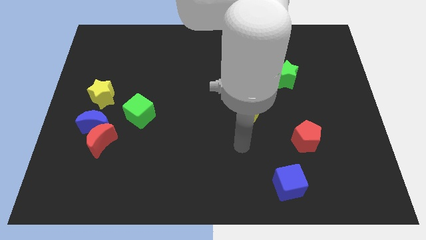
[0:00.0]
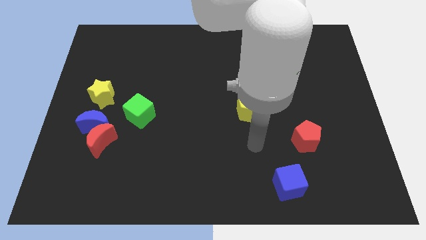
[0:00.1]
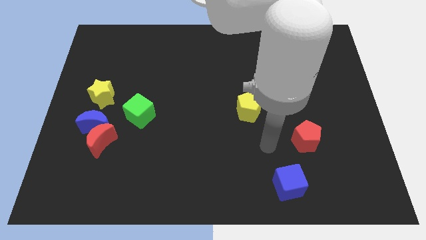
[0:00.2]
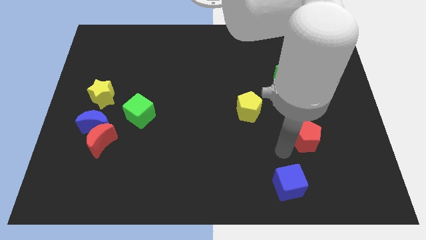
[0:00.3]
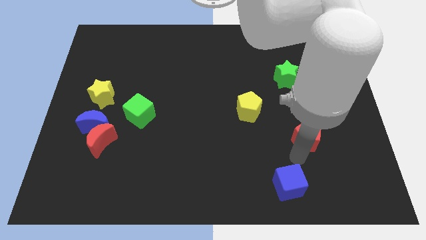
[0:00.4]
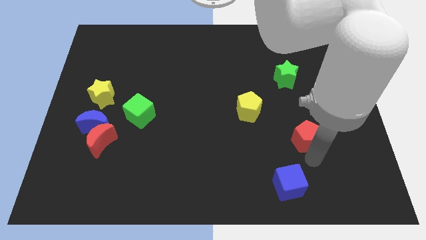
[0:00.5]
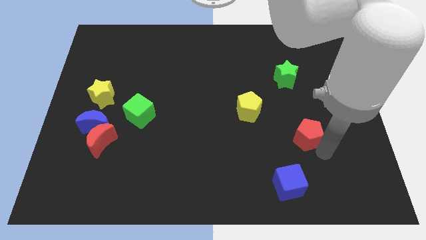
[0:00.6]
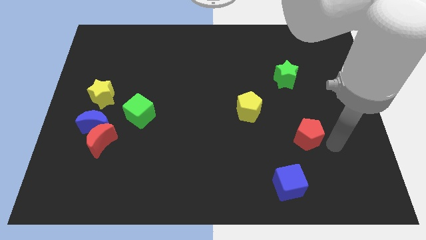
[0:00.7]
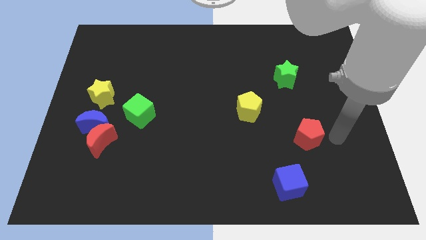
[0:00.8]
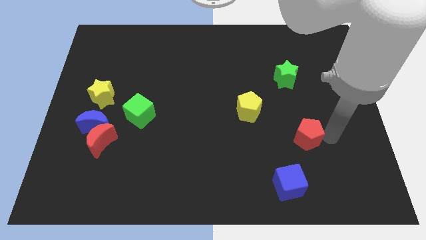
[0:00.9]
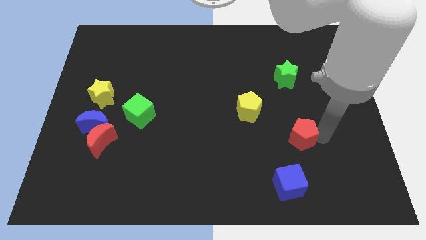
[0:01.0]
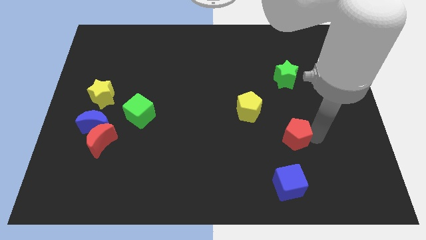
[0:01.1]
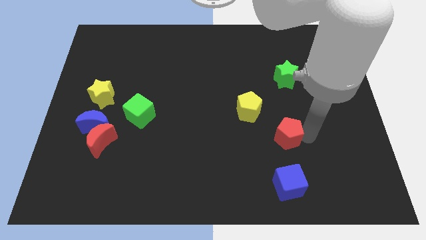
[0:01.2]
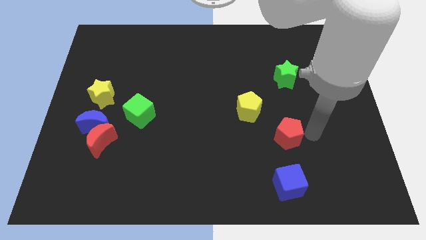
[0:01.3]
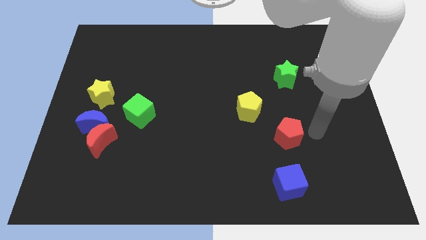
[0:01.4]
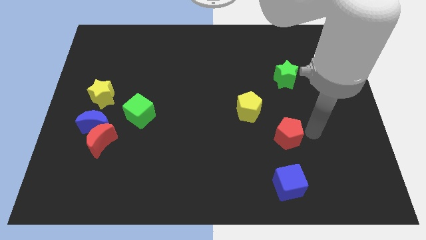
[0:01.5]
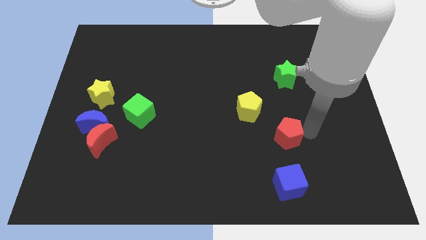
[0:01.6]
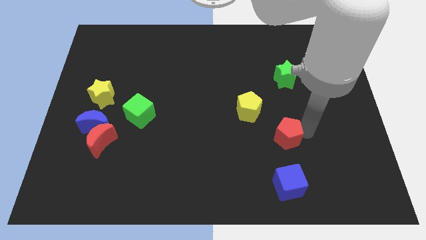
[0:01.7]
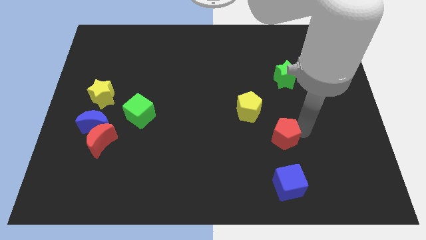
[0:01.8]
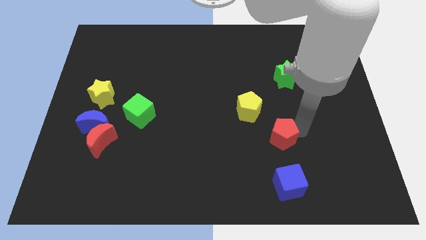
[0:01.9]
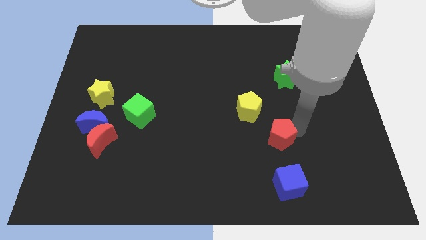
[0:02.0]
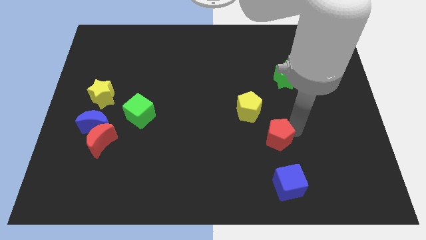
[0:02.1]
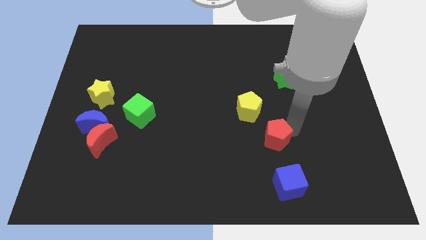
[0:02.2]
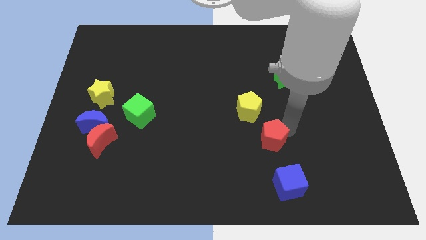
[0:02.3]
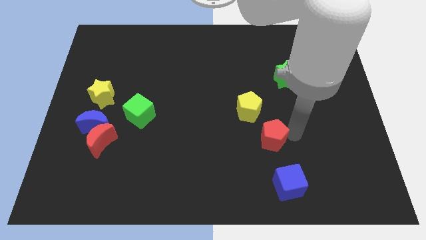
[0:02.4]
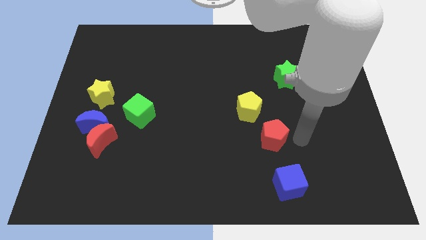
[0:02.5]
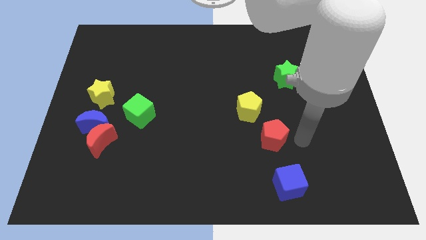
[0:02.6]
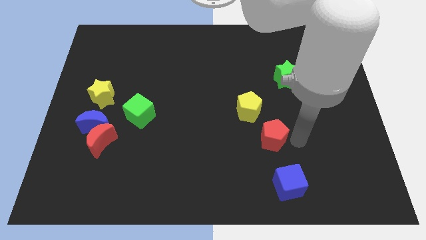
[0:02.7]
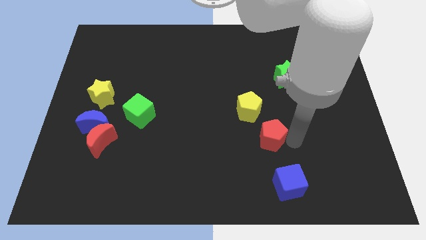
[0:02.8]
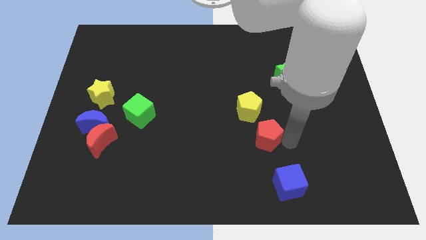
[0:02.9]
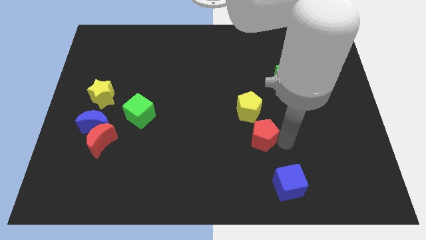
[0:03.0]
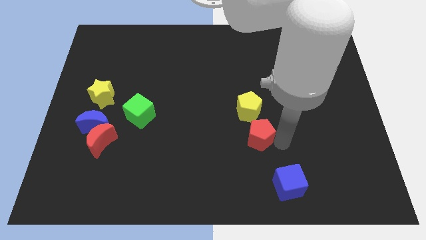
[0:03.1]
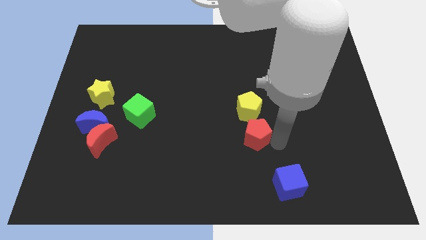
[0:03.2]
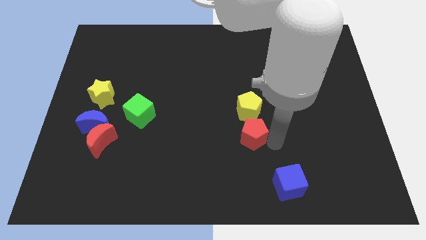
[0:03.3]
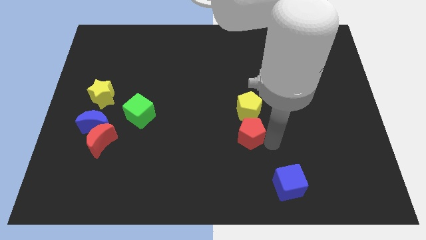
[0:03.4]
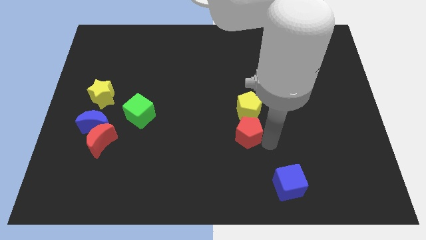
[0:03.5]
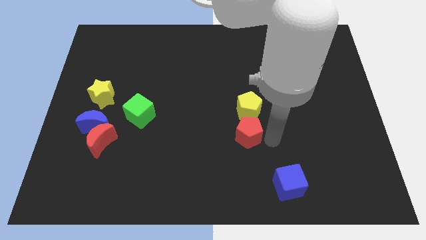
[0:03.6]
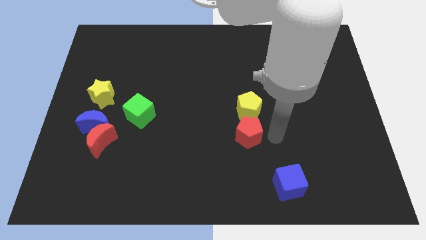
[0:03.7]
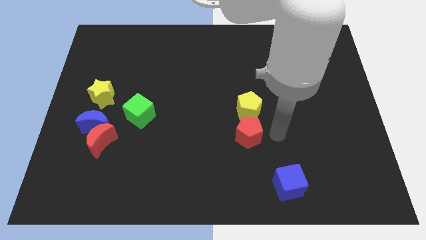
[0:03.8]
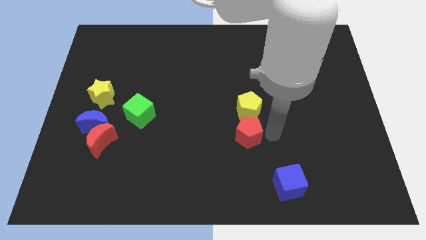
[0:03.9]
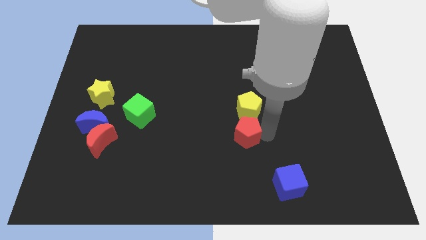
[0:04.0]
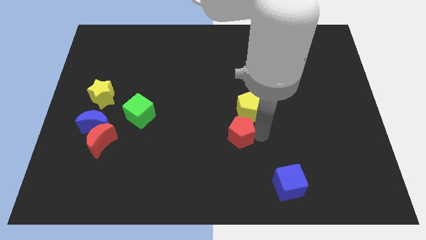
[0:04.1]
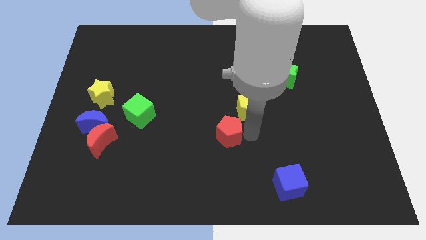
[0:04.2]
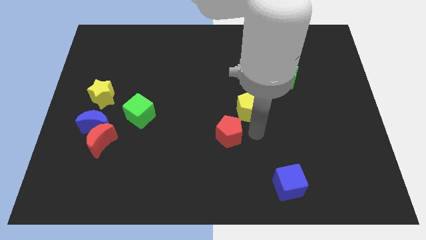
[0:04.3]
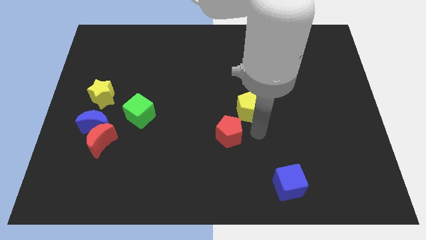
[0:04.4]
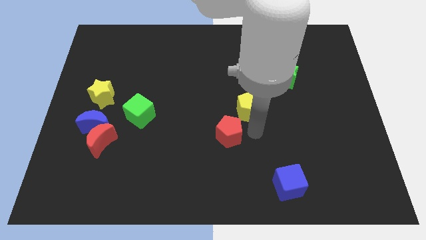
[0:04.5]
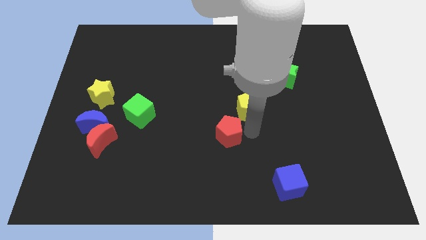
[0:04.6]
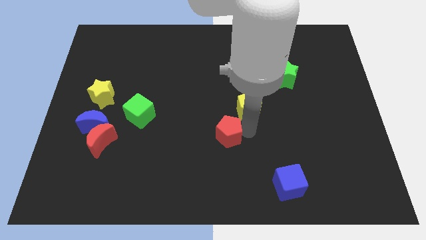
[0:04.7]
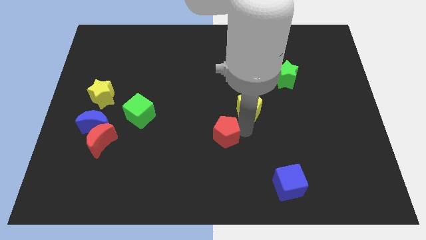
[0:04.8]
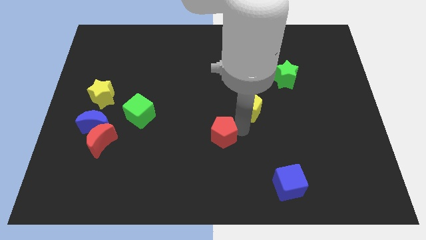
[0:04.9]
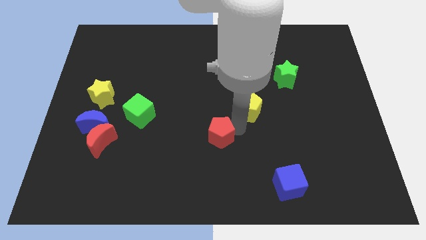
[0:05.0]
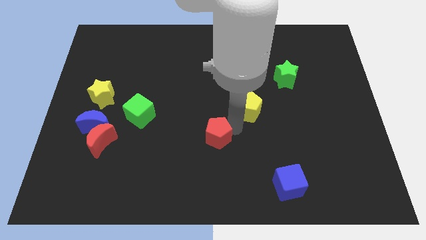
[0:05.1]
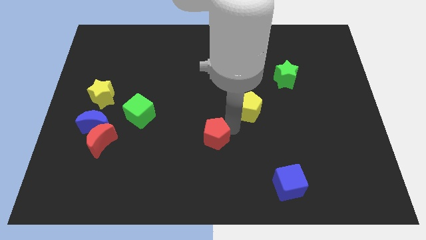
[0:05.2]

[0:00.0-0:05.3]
move the red pentagon left

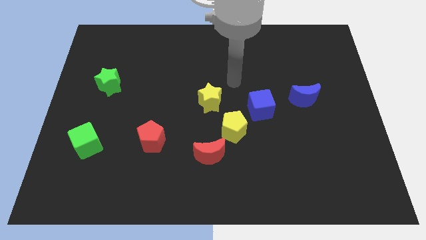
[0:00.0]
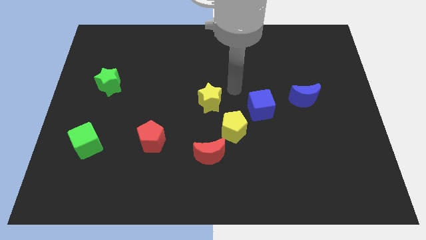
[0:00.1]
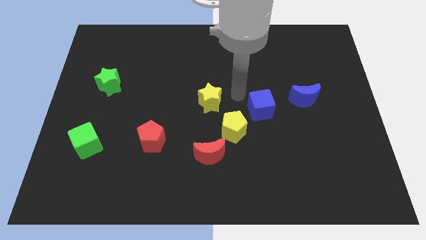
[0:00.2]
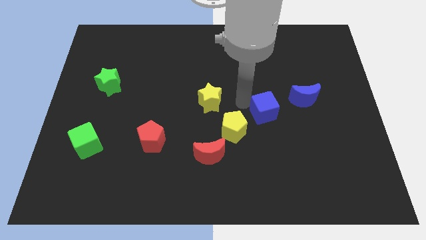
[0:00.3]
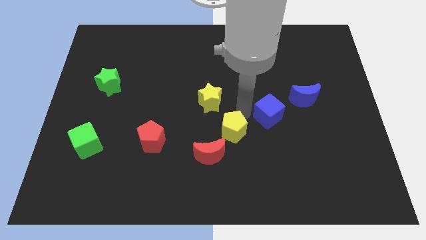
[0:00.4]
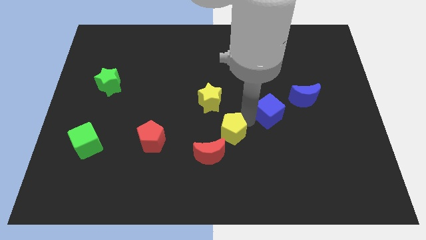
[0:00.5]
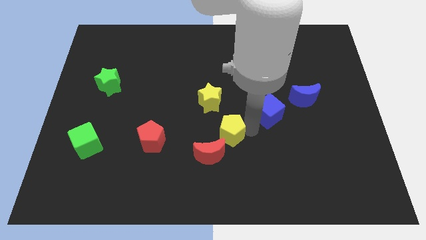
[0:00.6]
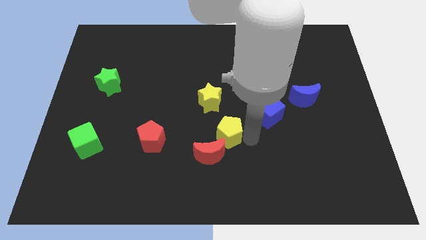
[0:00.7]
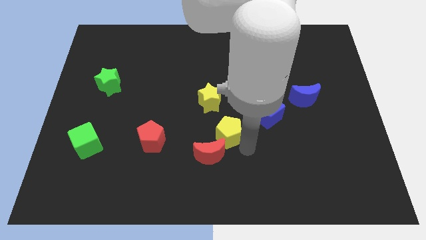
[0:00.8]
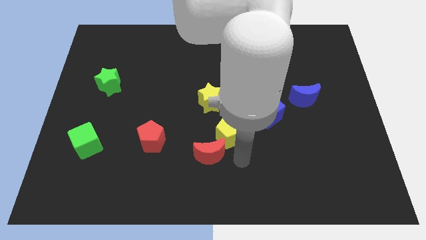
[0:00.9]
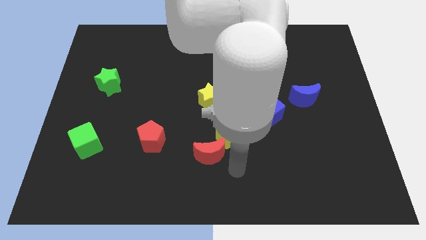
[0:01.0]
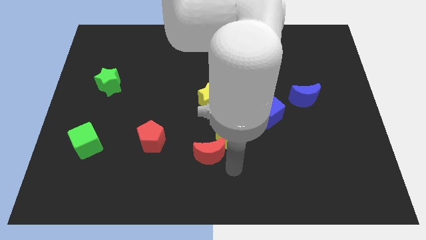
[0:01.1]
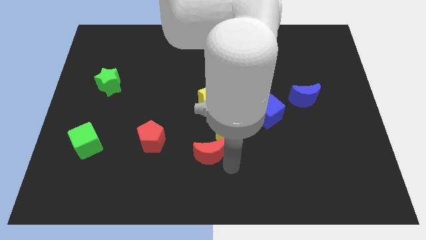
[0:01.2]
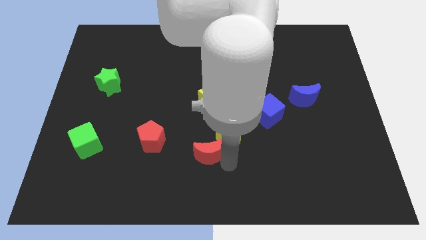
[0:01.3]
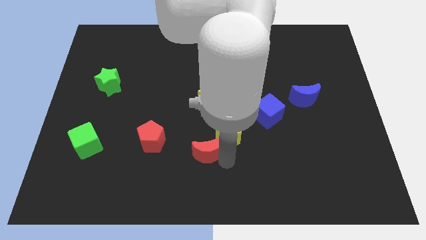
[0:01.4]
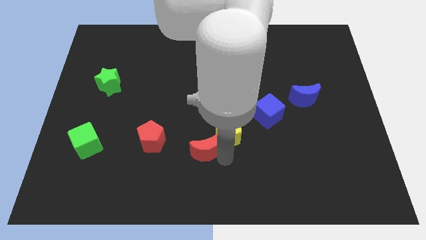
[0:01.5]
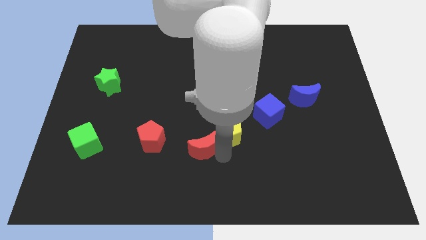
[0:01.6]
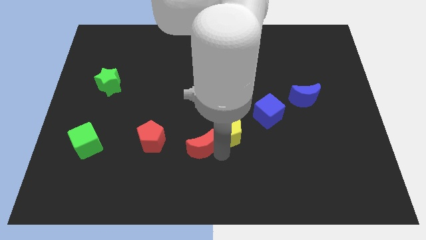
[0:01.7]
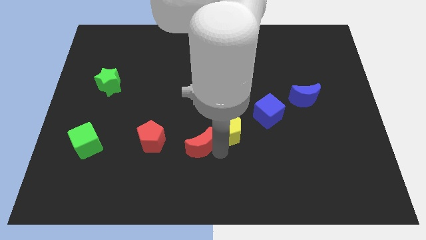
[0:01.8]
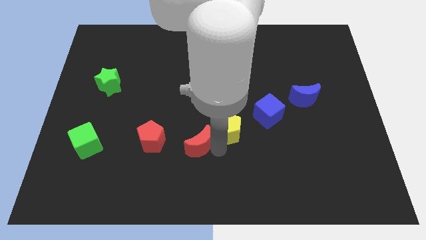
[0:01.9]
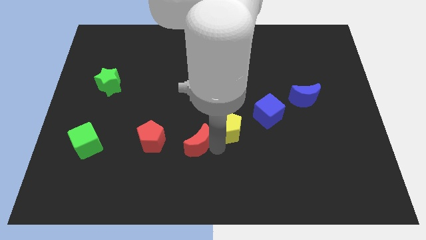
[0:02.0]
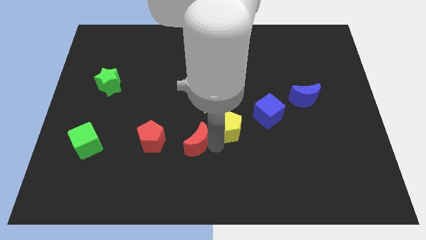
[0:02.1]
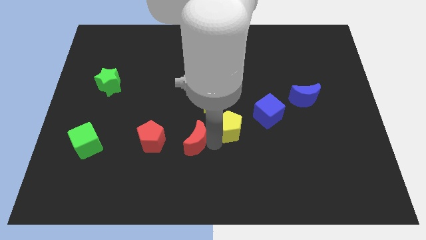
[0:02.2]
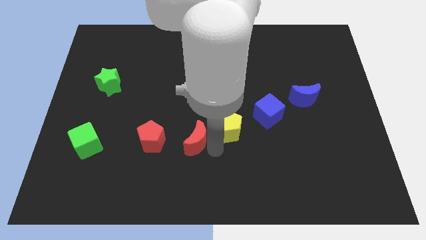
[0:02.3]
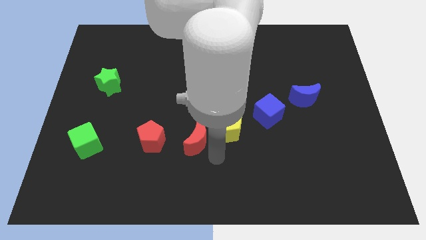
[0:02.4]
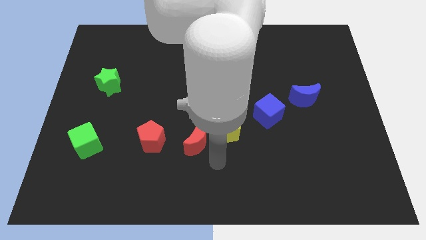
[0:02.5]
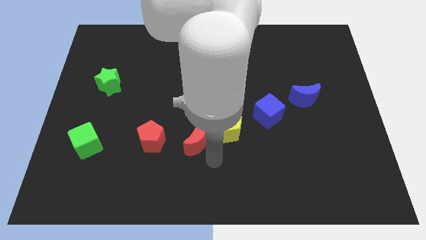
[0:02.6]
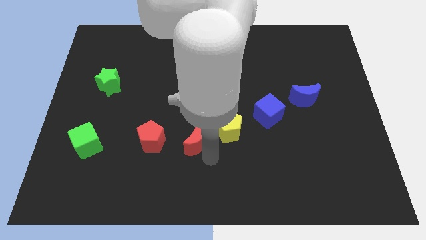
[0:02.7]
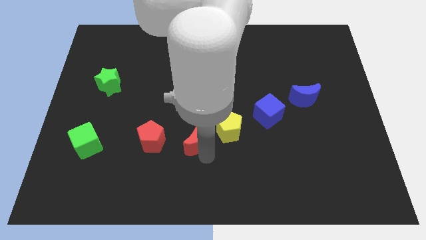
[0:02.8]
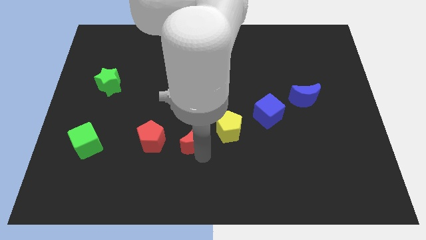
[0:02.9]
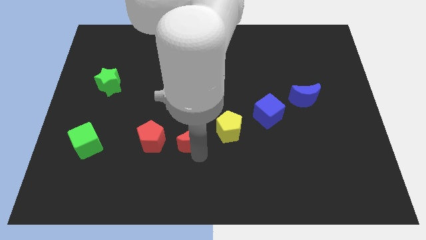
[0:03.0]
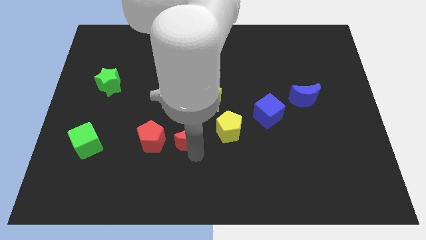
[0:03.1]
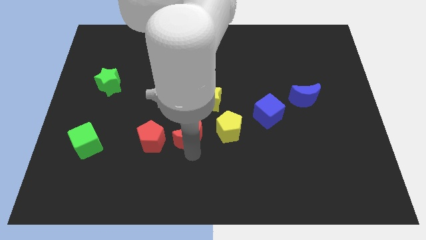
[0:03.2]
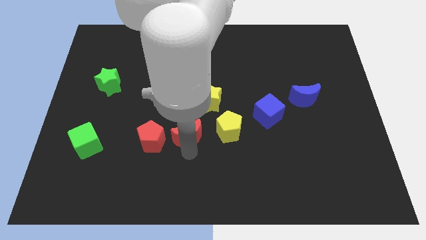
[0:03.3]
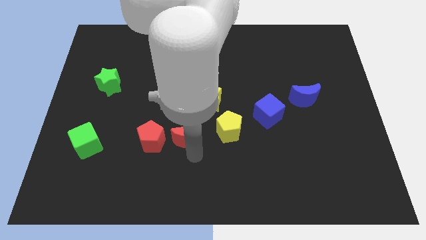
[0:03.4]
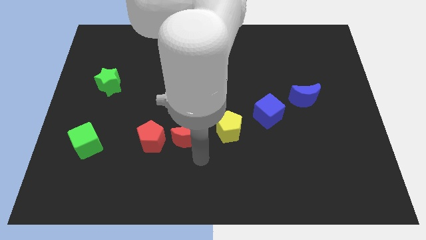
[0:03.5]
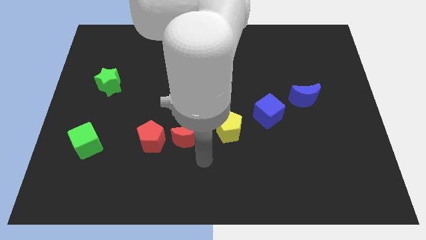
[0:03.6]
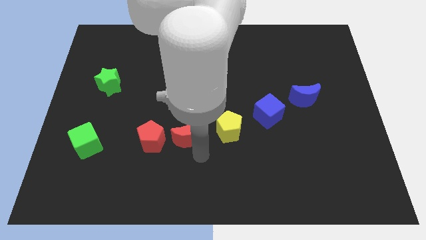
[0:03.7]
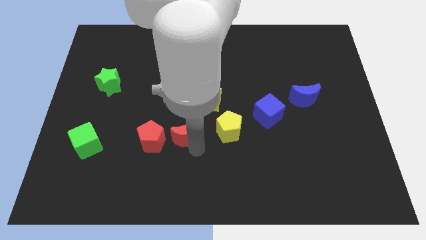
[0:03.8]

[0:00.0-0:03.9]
push the red moon a bit diagonally up and left
